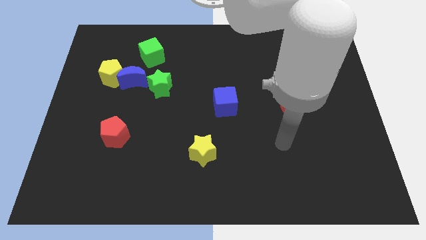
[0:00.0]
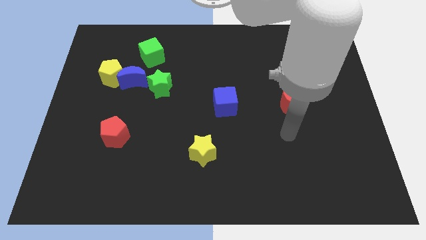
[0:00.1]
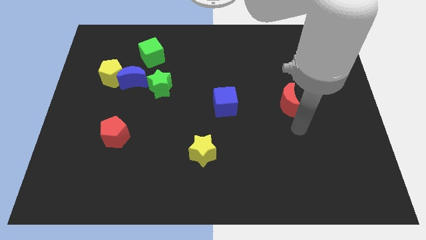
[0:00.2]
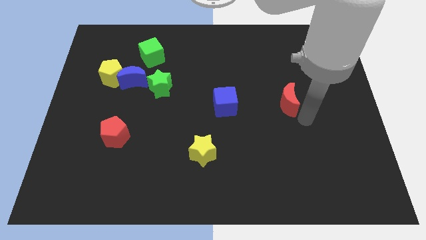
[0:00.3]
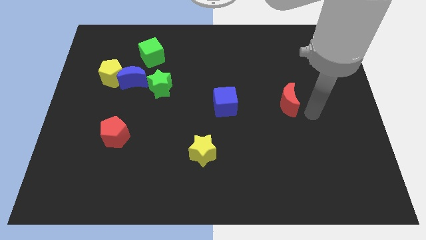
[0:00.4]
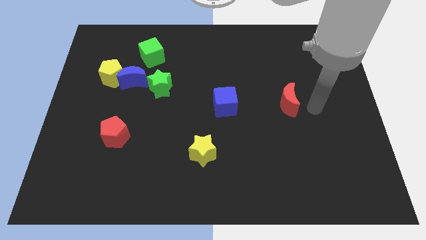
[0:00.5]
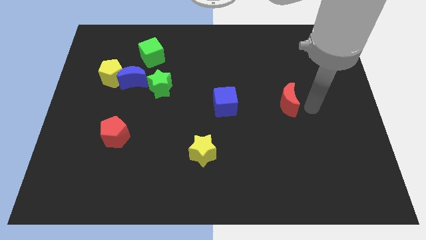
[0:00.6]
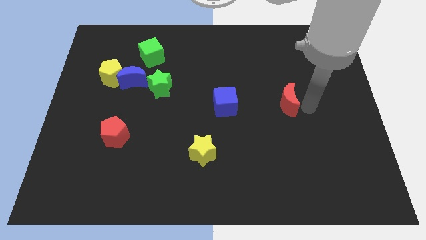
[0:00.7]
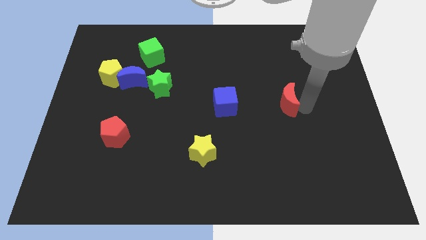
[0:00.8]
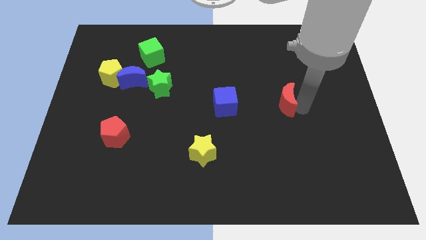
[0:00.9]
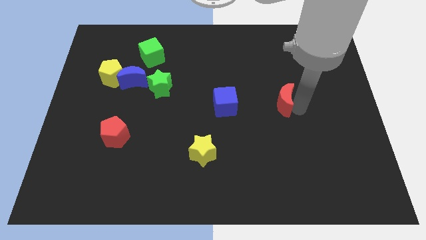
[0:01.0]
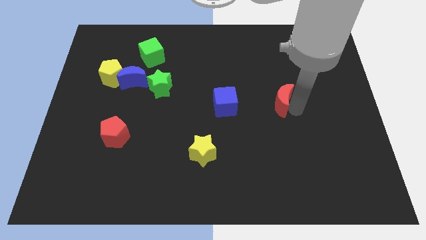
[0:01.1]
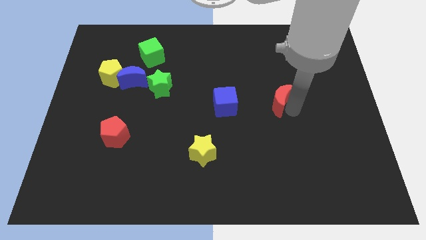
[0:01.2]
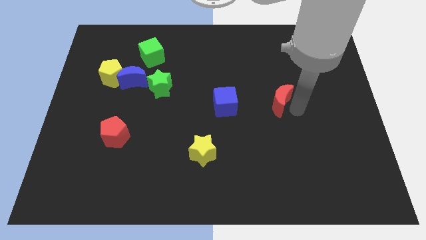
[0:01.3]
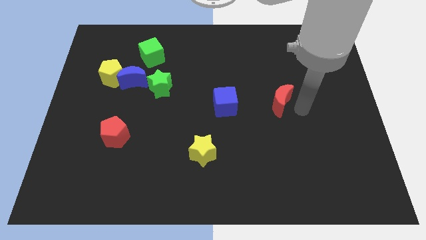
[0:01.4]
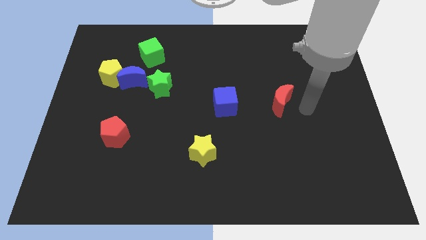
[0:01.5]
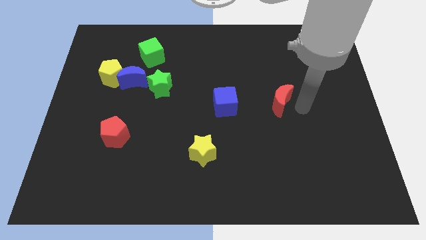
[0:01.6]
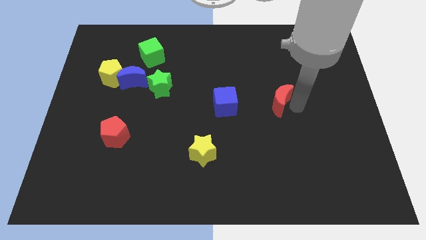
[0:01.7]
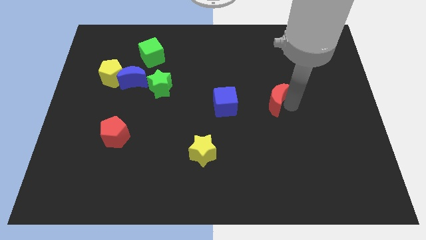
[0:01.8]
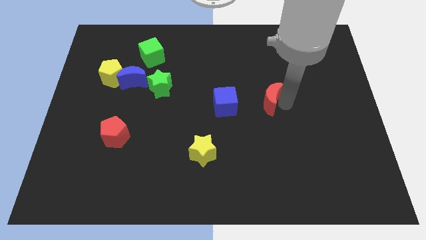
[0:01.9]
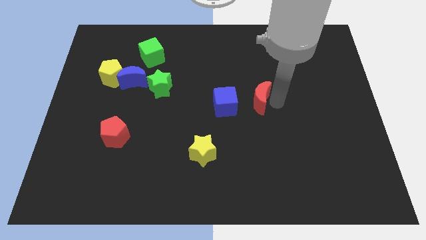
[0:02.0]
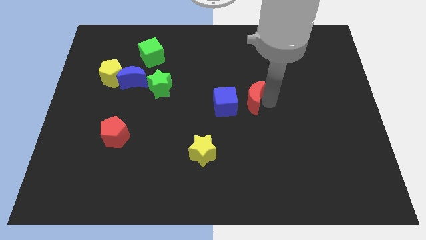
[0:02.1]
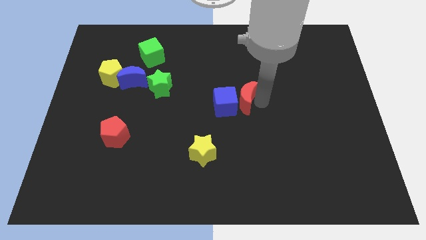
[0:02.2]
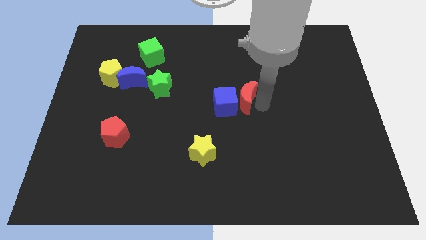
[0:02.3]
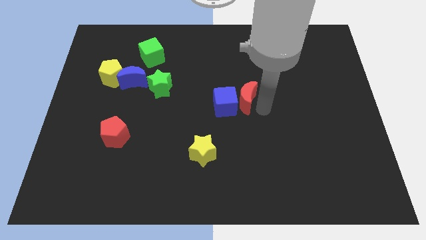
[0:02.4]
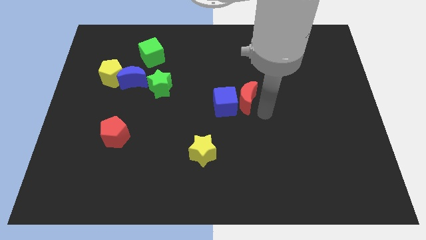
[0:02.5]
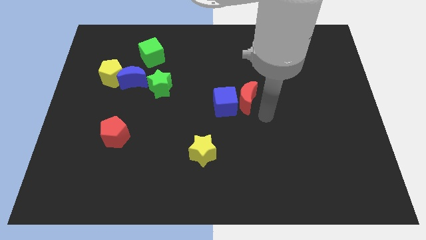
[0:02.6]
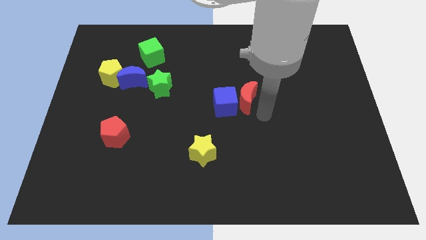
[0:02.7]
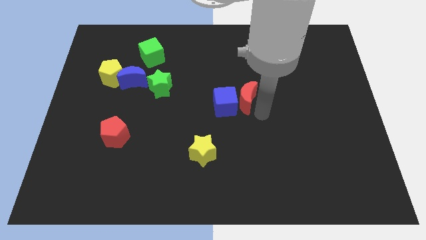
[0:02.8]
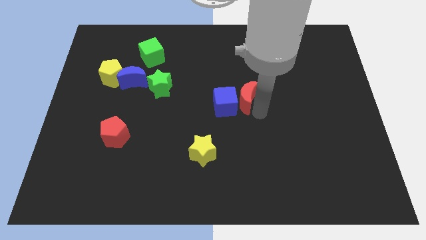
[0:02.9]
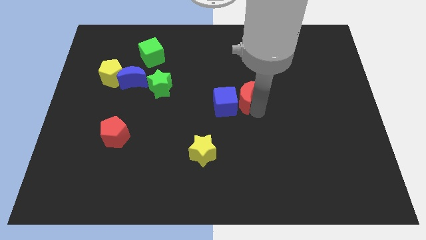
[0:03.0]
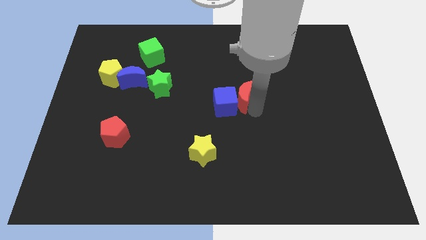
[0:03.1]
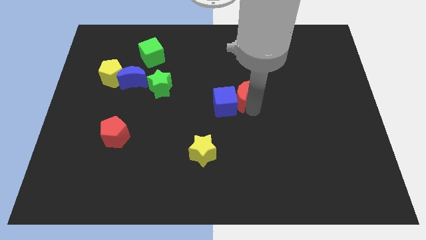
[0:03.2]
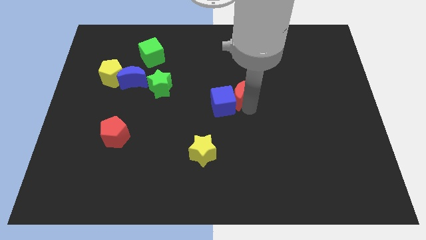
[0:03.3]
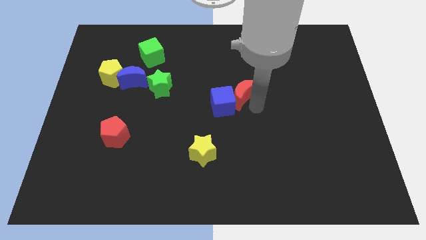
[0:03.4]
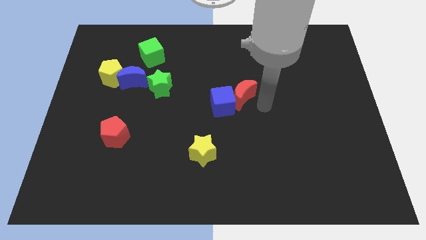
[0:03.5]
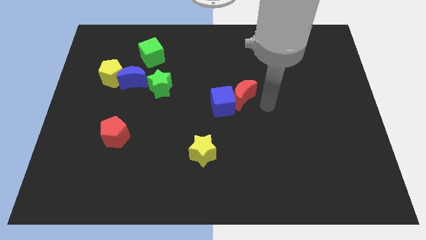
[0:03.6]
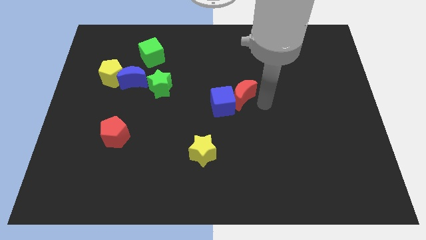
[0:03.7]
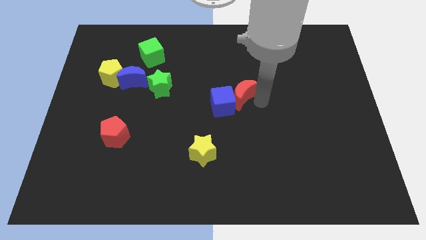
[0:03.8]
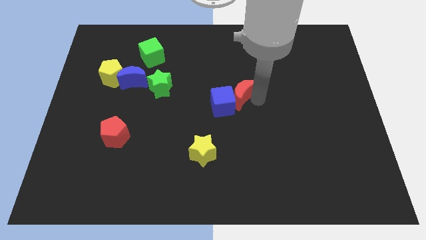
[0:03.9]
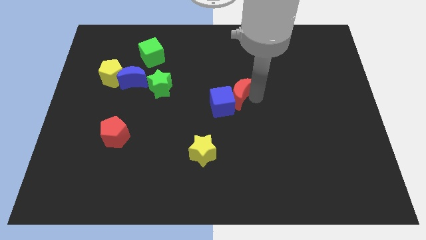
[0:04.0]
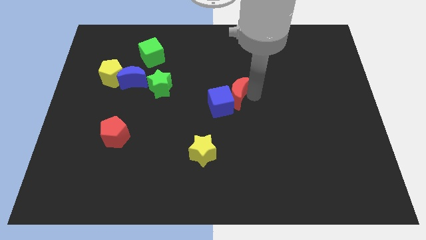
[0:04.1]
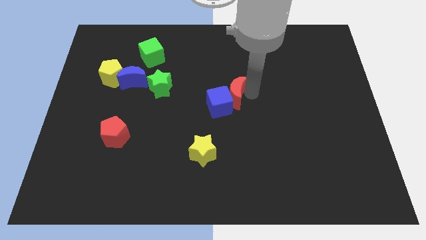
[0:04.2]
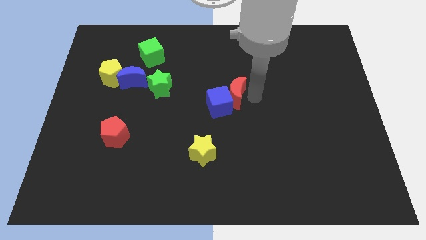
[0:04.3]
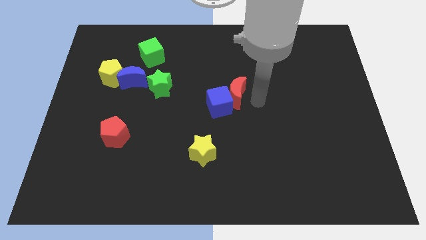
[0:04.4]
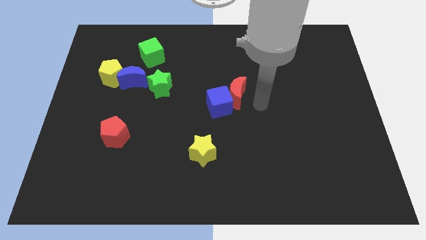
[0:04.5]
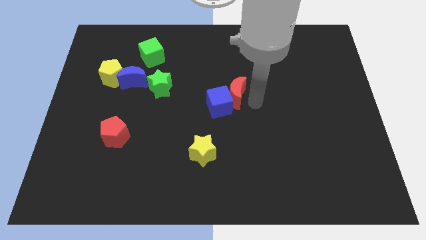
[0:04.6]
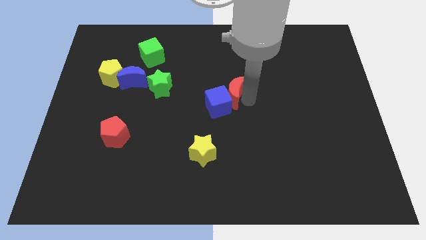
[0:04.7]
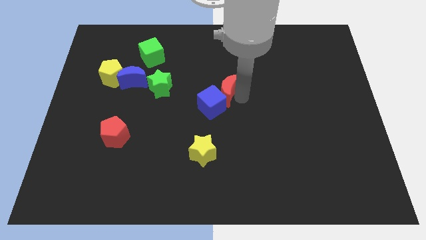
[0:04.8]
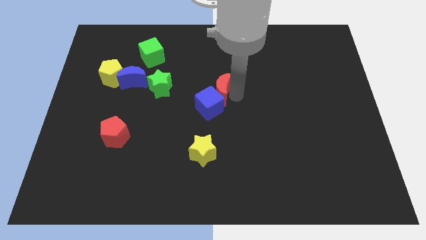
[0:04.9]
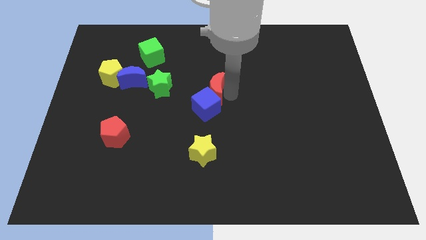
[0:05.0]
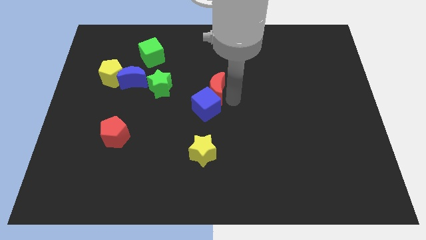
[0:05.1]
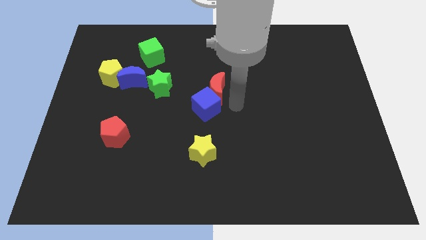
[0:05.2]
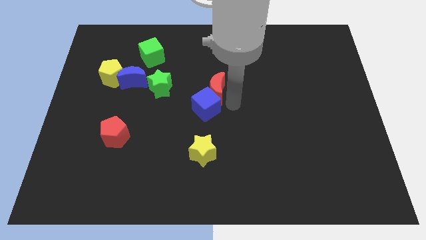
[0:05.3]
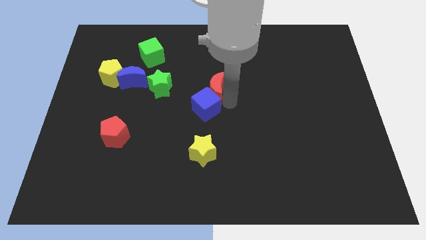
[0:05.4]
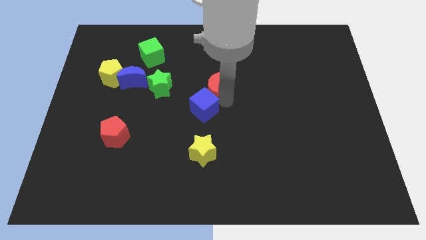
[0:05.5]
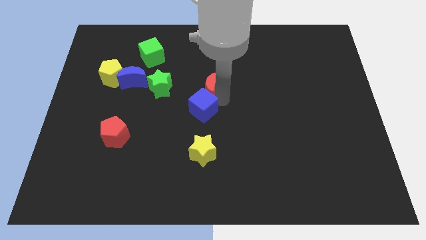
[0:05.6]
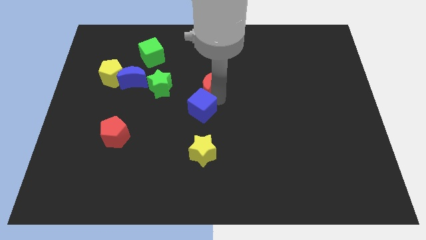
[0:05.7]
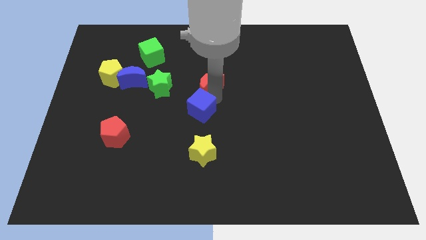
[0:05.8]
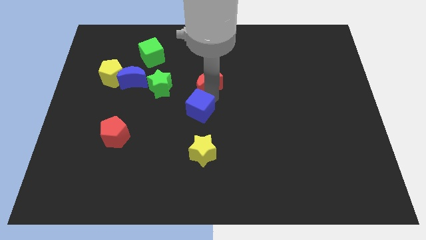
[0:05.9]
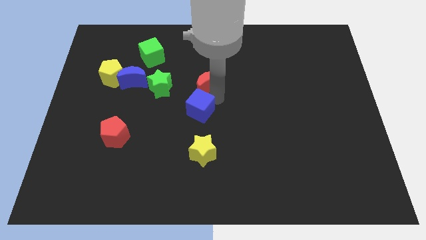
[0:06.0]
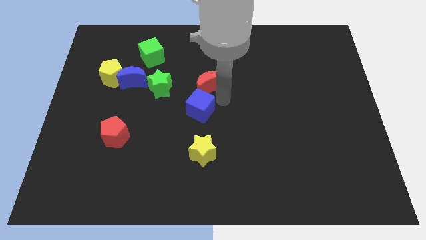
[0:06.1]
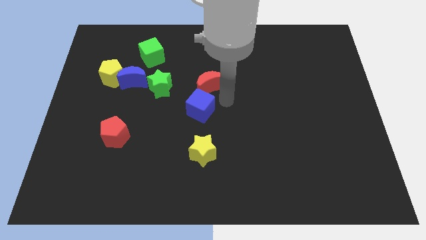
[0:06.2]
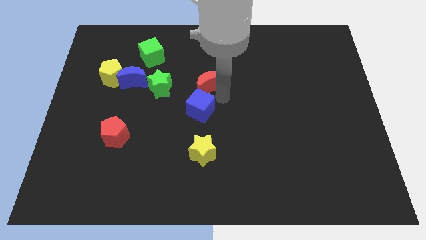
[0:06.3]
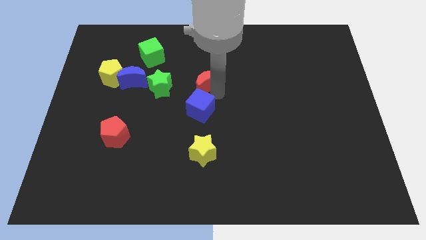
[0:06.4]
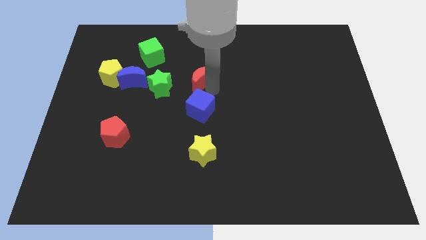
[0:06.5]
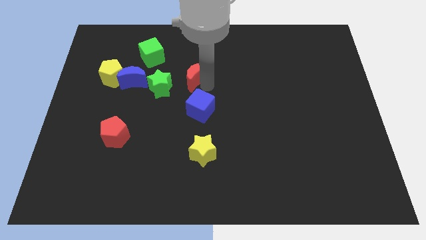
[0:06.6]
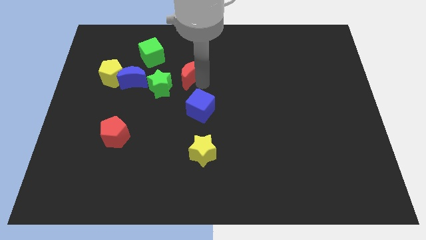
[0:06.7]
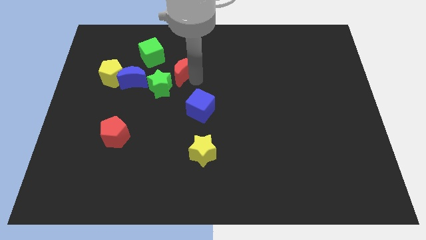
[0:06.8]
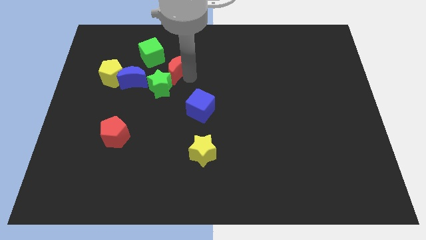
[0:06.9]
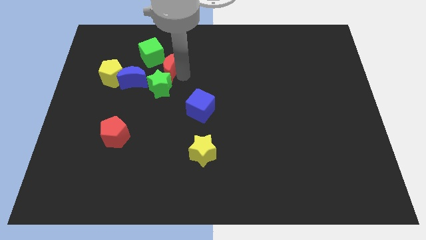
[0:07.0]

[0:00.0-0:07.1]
slide the red moon diagonally up and to the right of the blue moon

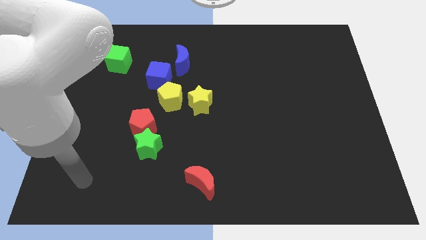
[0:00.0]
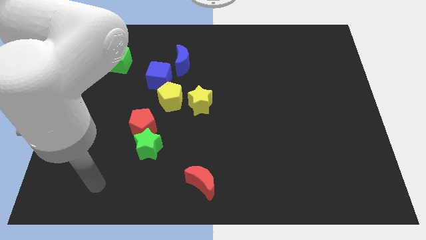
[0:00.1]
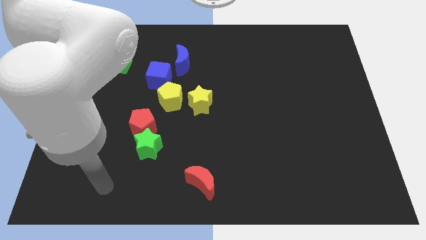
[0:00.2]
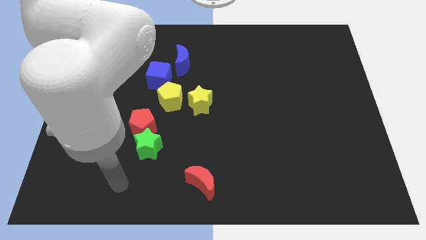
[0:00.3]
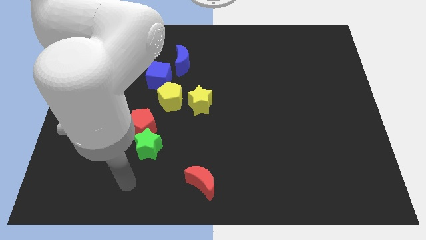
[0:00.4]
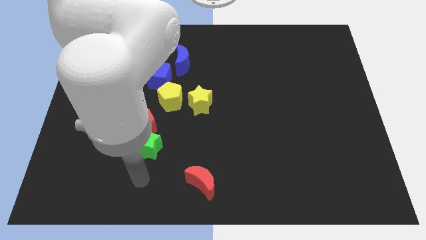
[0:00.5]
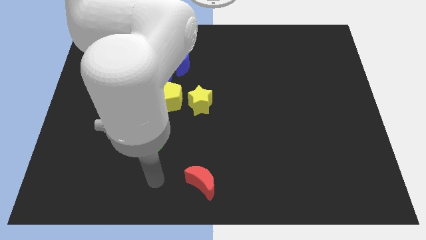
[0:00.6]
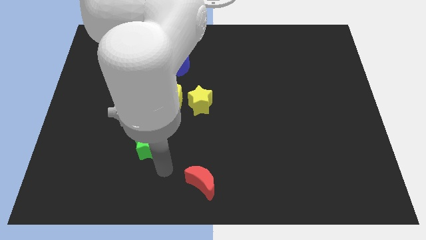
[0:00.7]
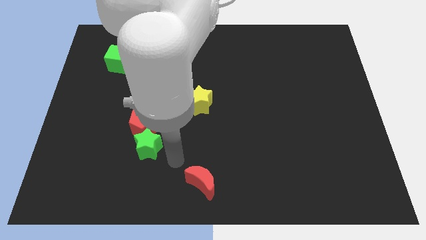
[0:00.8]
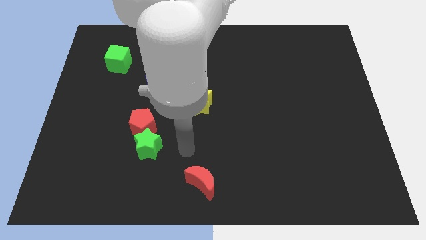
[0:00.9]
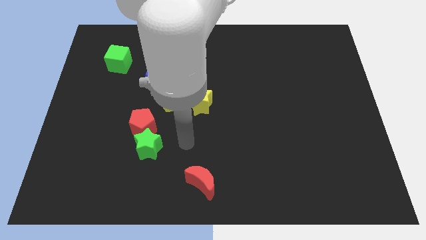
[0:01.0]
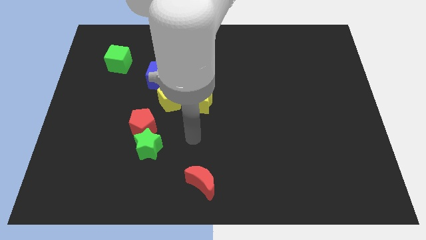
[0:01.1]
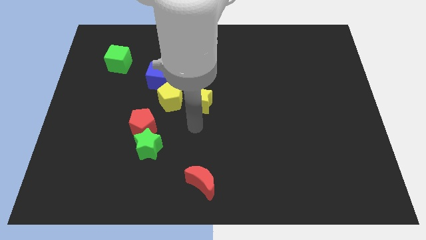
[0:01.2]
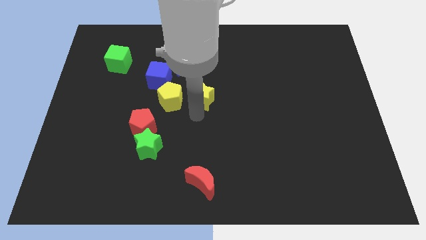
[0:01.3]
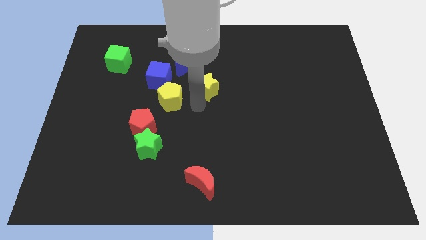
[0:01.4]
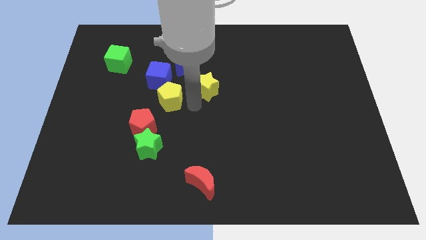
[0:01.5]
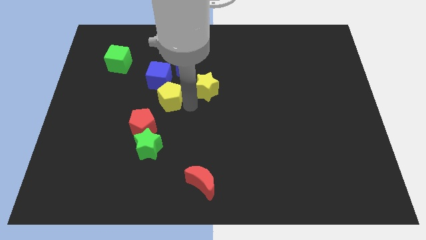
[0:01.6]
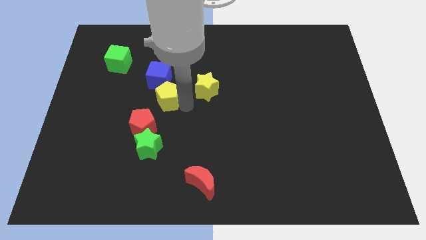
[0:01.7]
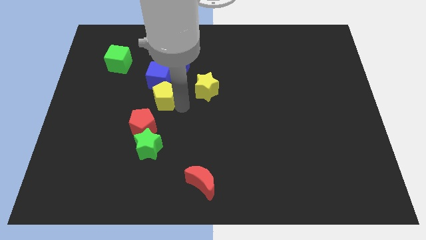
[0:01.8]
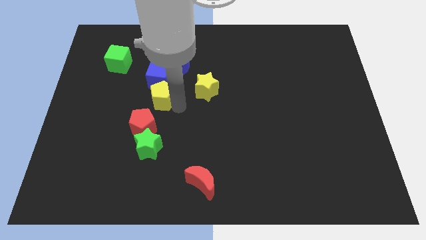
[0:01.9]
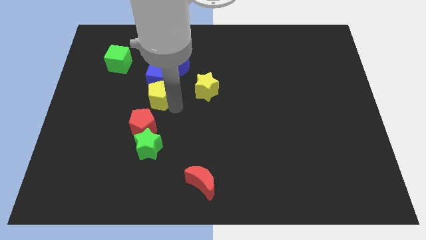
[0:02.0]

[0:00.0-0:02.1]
push the yellow pentagon diagonally down and to the left of the blue cube
